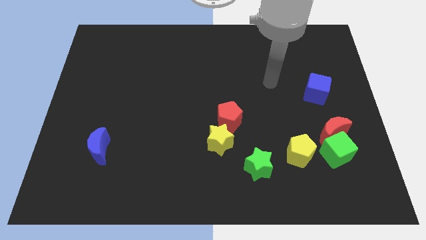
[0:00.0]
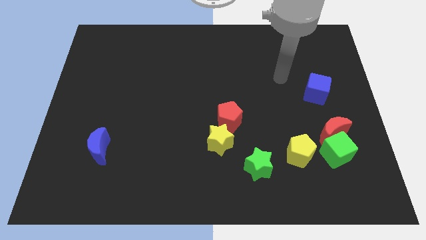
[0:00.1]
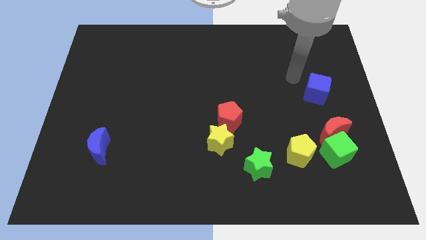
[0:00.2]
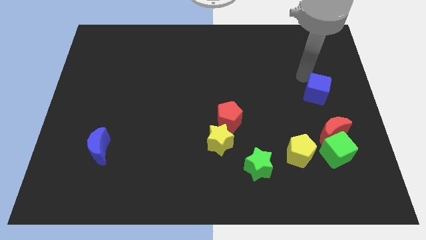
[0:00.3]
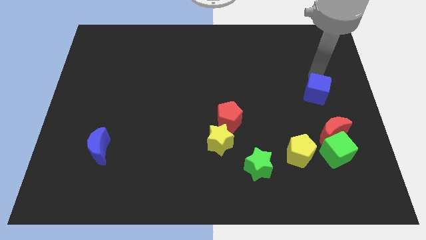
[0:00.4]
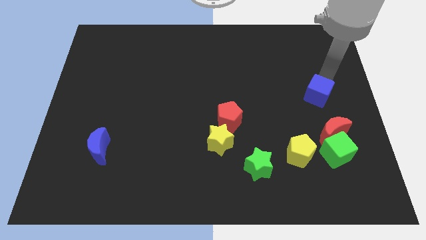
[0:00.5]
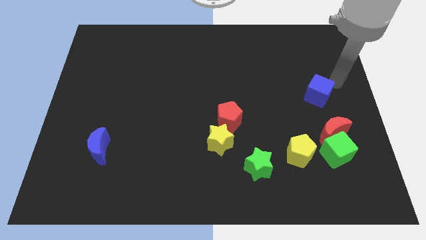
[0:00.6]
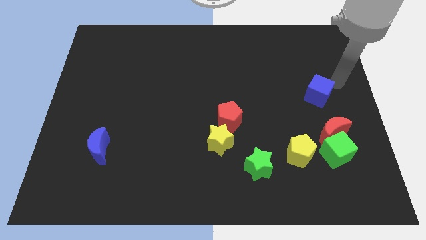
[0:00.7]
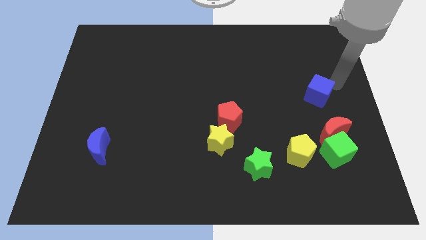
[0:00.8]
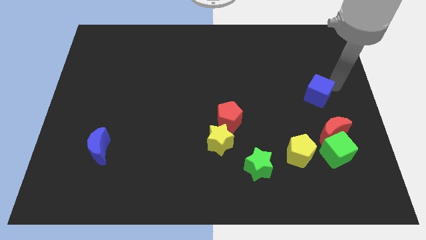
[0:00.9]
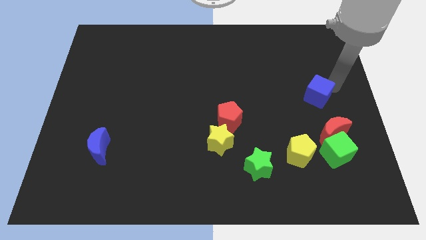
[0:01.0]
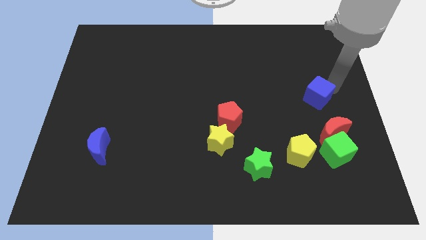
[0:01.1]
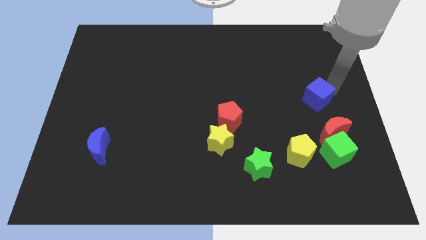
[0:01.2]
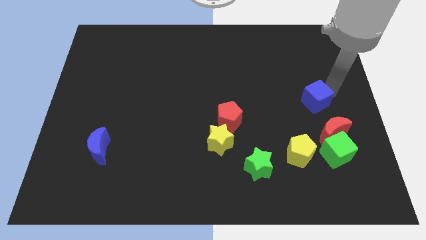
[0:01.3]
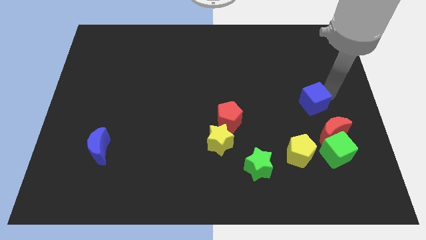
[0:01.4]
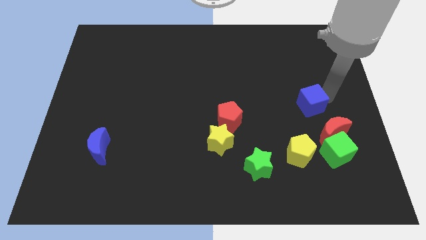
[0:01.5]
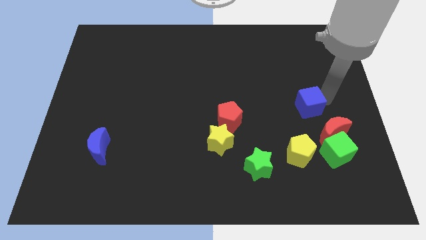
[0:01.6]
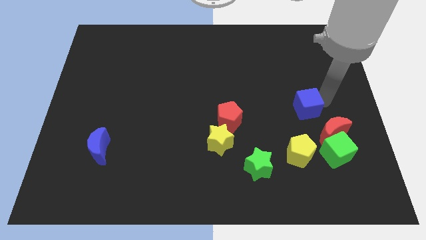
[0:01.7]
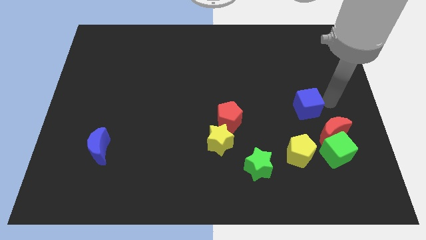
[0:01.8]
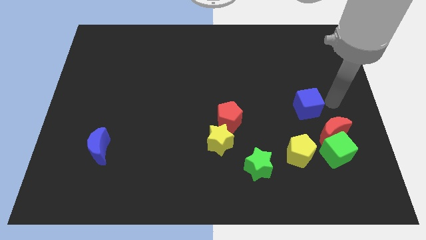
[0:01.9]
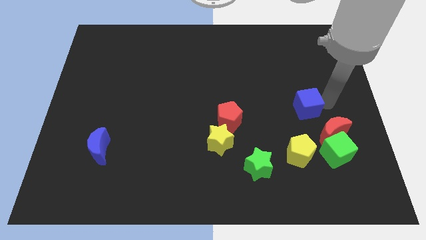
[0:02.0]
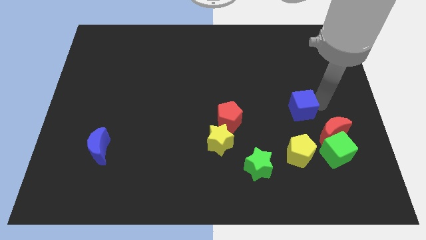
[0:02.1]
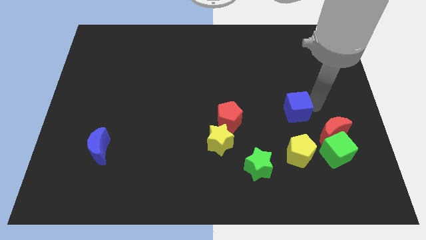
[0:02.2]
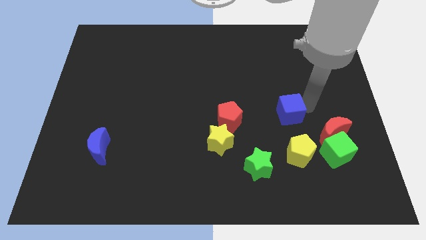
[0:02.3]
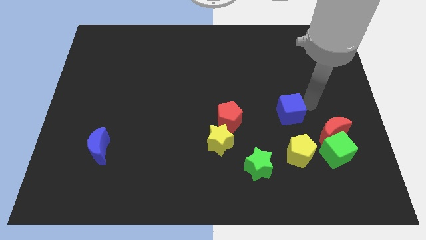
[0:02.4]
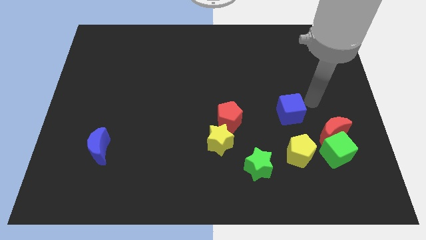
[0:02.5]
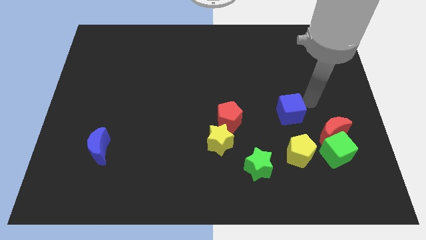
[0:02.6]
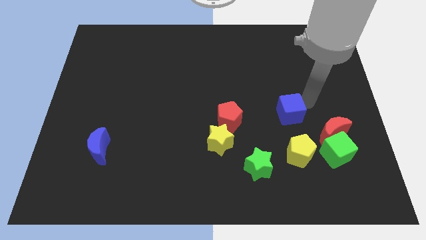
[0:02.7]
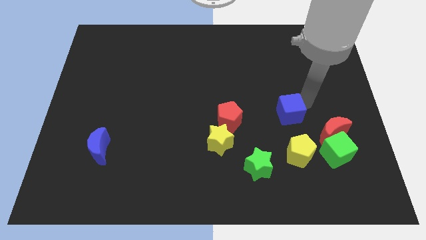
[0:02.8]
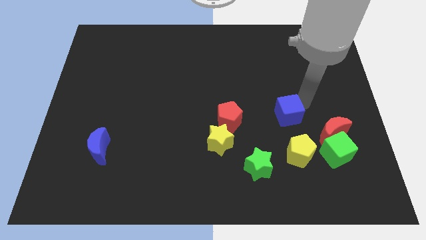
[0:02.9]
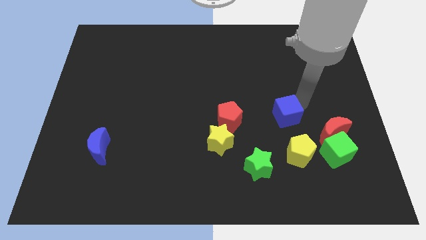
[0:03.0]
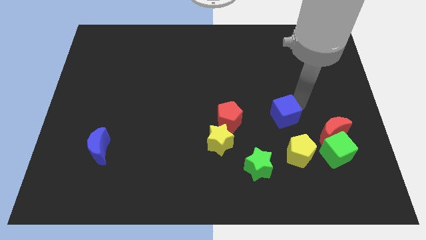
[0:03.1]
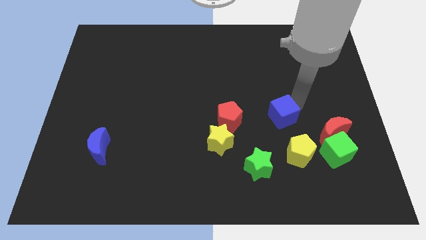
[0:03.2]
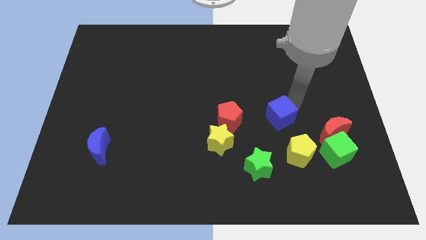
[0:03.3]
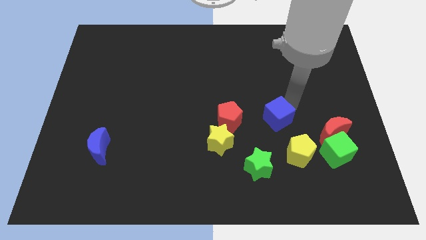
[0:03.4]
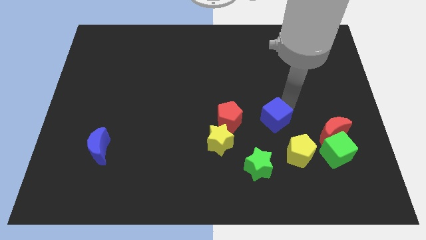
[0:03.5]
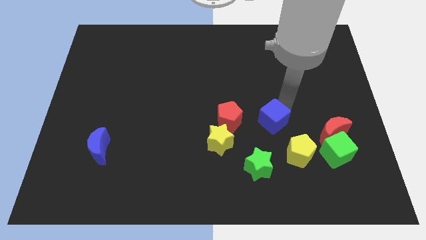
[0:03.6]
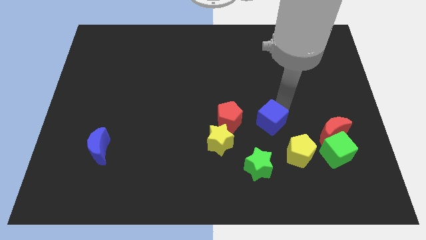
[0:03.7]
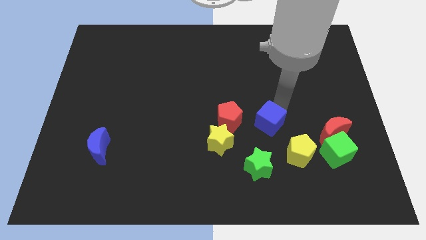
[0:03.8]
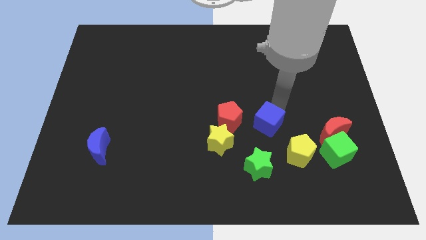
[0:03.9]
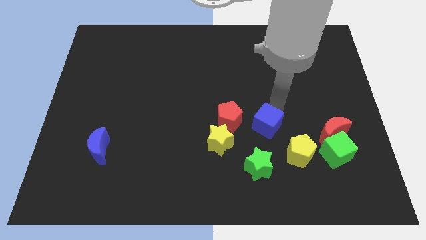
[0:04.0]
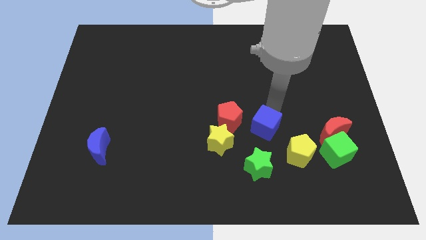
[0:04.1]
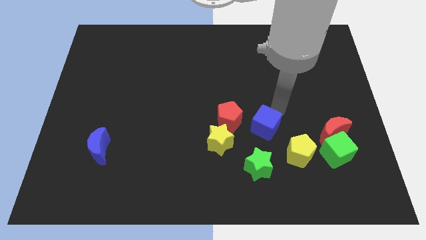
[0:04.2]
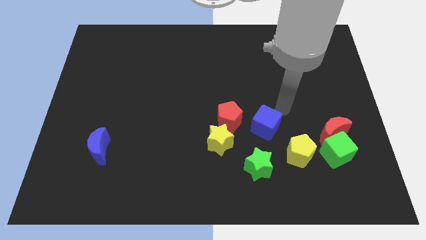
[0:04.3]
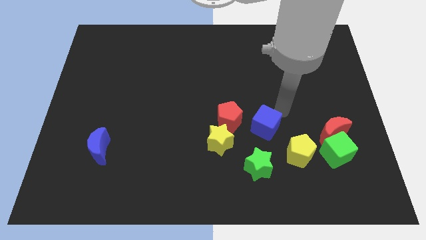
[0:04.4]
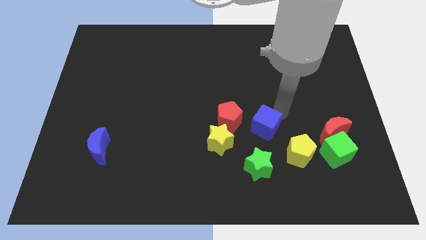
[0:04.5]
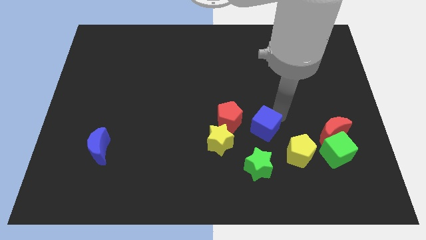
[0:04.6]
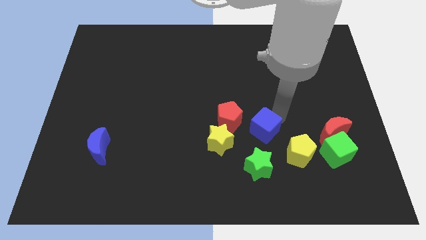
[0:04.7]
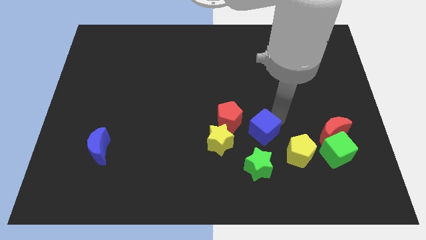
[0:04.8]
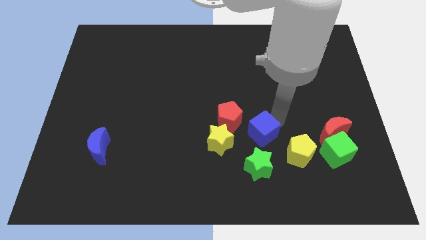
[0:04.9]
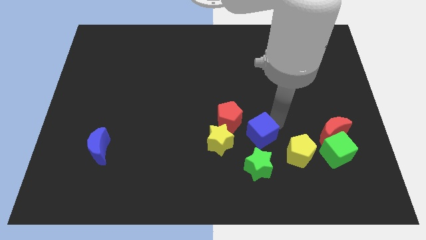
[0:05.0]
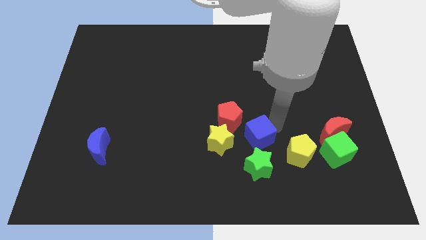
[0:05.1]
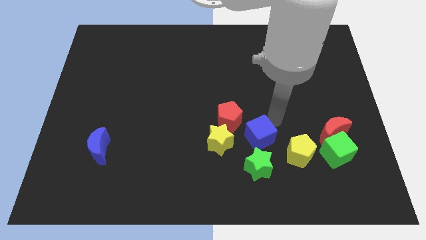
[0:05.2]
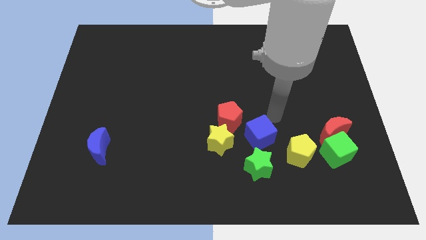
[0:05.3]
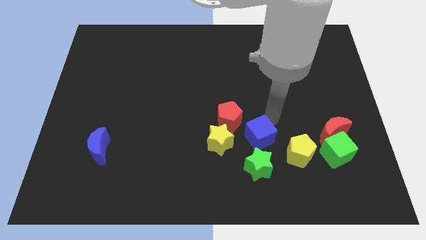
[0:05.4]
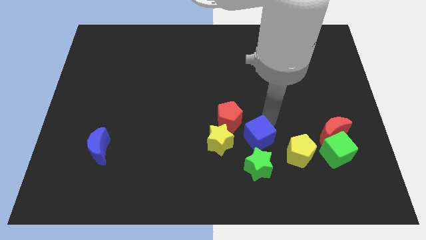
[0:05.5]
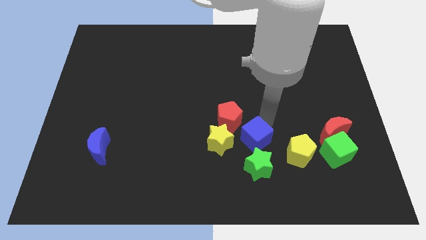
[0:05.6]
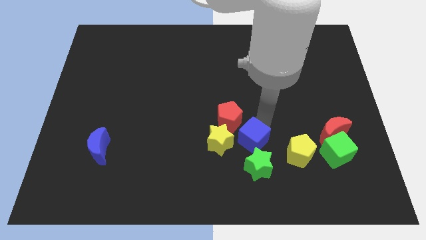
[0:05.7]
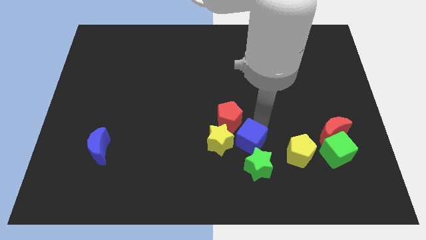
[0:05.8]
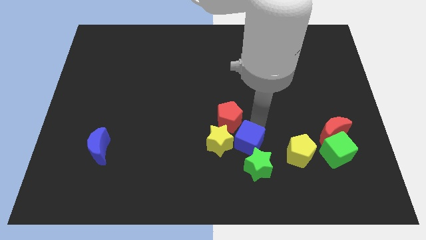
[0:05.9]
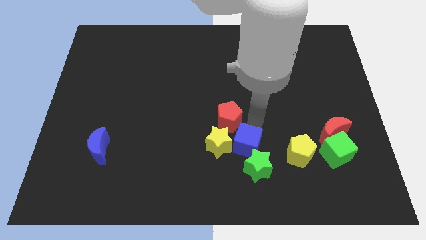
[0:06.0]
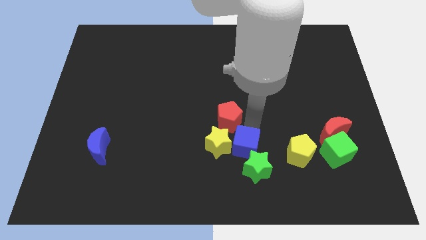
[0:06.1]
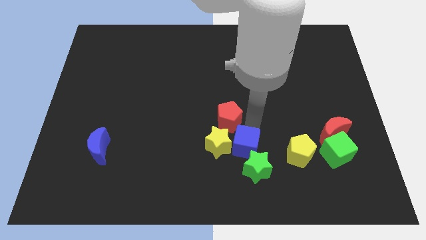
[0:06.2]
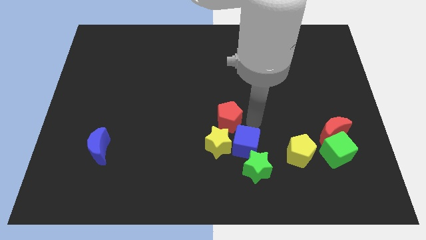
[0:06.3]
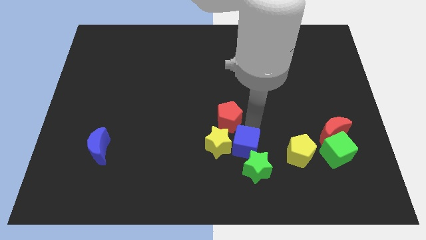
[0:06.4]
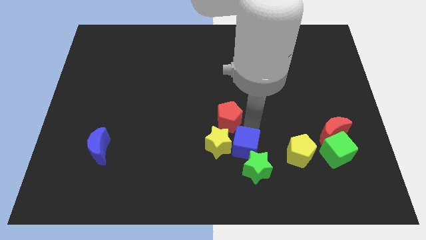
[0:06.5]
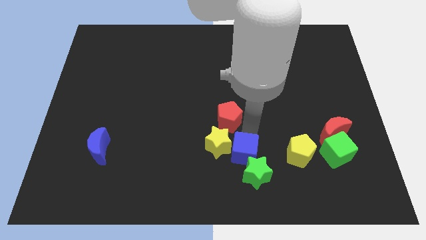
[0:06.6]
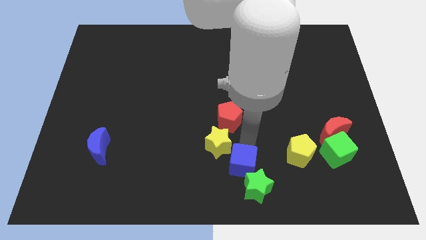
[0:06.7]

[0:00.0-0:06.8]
push the blue cube to the bottom side
